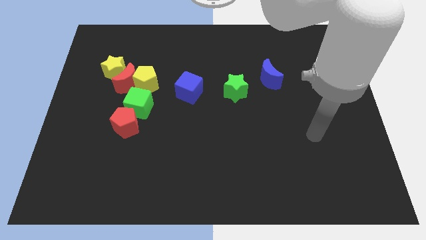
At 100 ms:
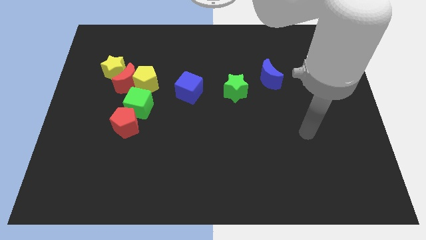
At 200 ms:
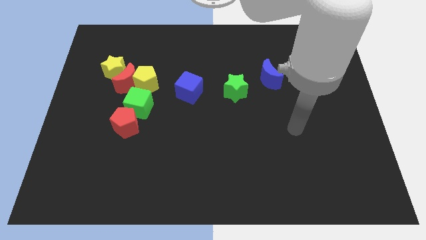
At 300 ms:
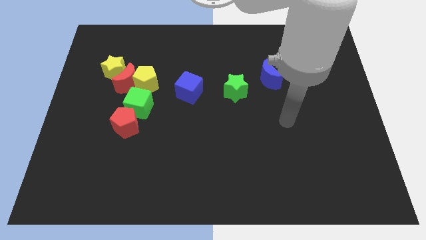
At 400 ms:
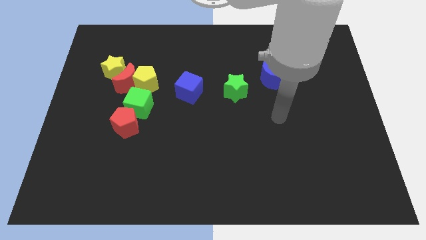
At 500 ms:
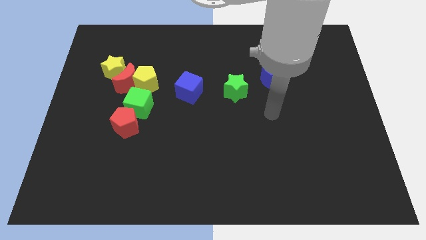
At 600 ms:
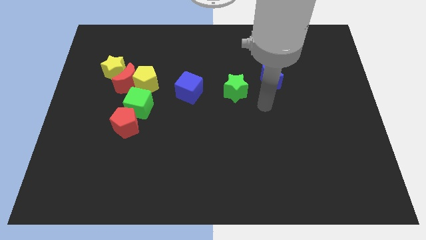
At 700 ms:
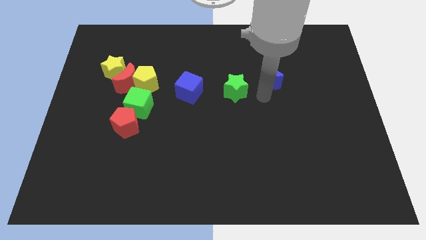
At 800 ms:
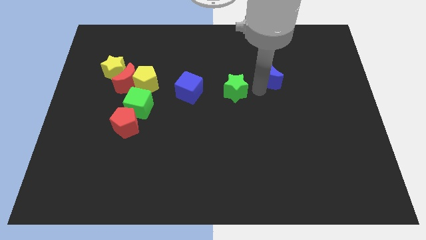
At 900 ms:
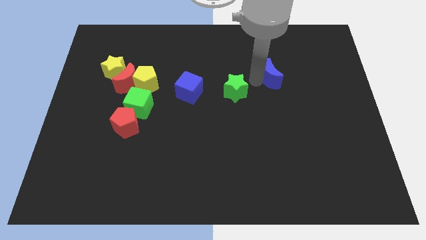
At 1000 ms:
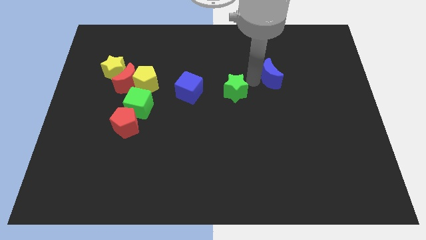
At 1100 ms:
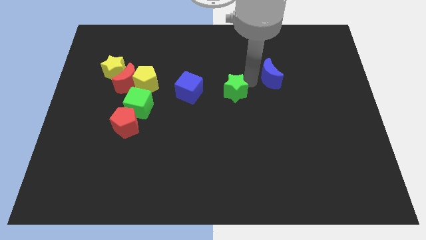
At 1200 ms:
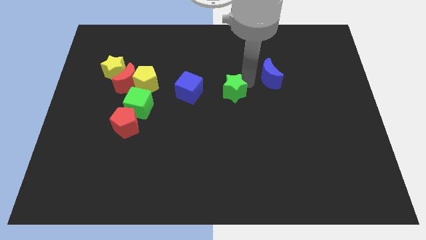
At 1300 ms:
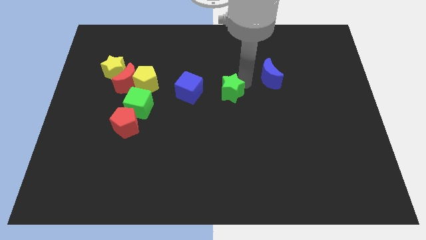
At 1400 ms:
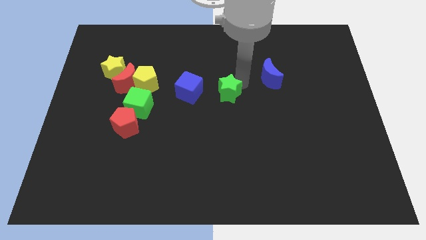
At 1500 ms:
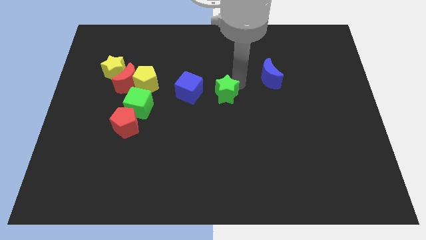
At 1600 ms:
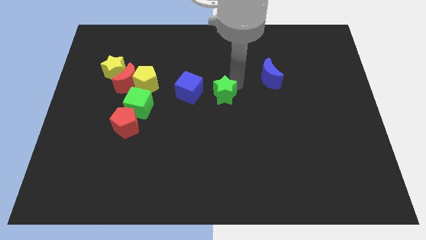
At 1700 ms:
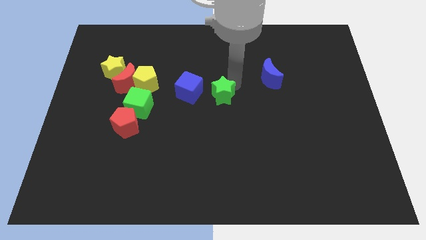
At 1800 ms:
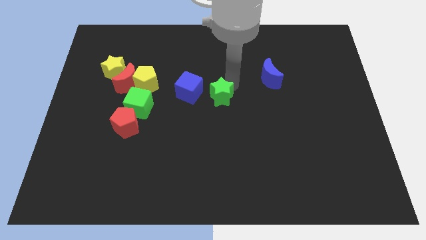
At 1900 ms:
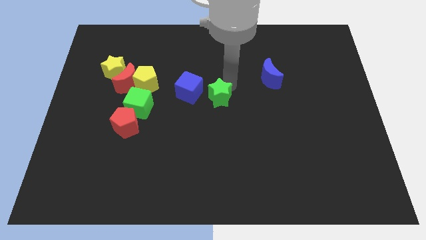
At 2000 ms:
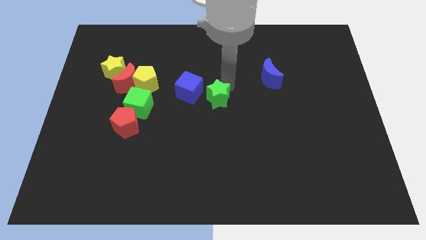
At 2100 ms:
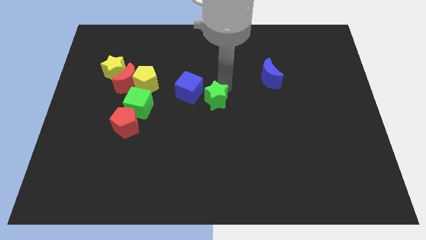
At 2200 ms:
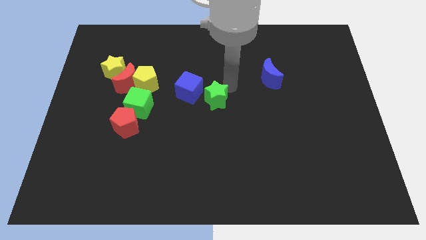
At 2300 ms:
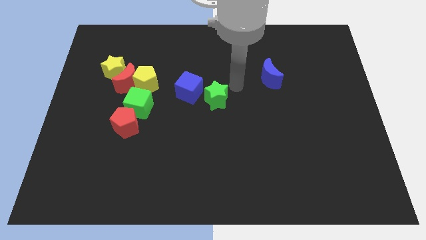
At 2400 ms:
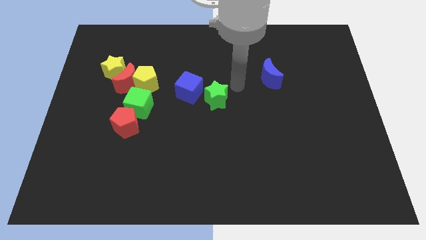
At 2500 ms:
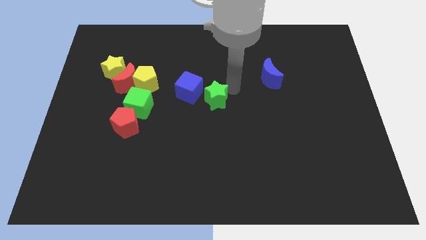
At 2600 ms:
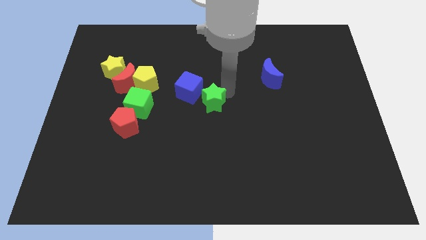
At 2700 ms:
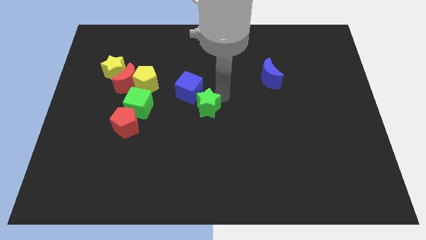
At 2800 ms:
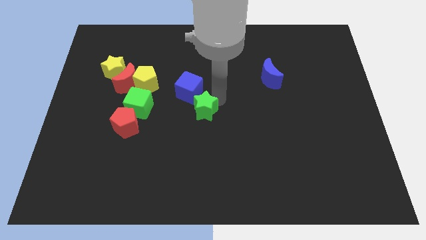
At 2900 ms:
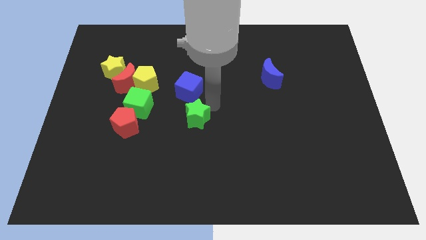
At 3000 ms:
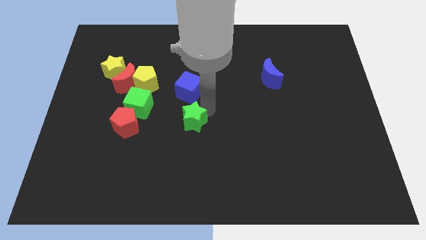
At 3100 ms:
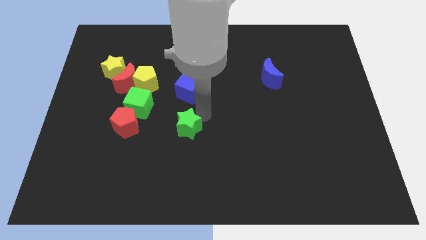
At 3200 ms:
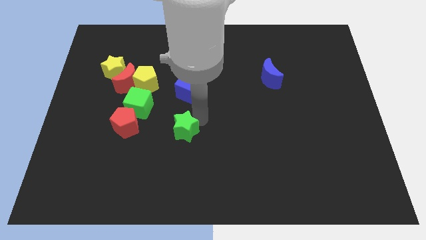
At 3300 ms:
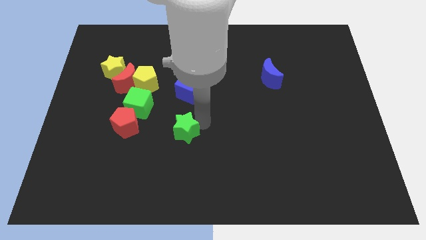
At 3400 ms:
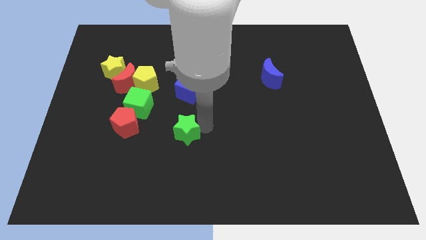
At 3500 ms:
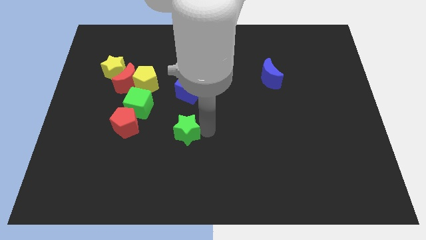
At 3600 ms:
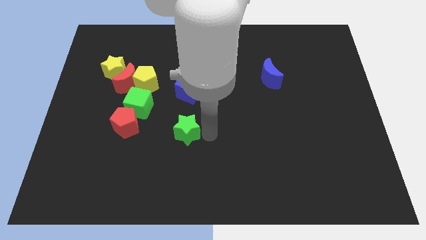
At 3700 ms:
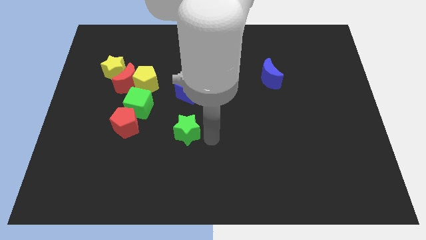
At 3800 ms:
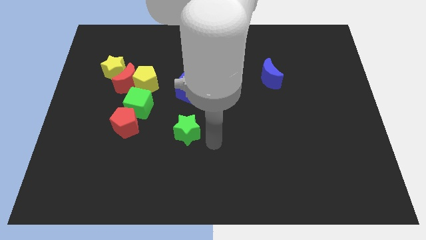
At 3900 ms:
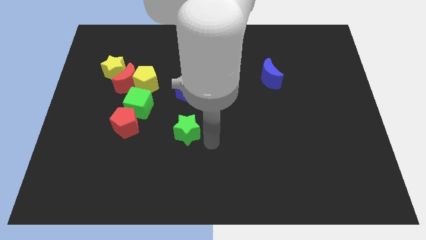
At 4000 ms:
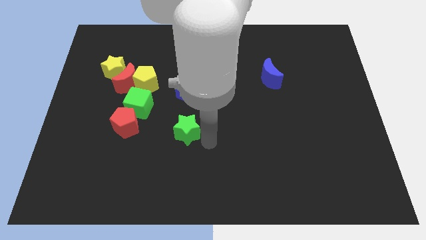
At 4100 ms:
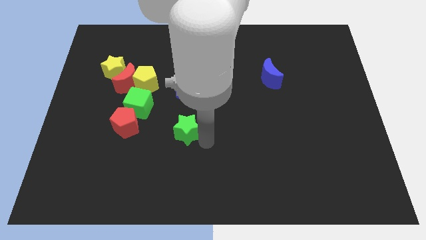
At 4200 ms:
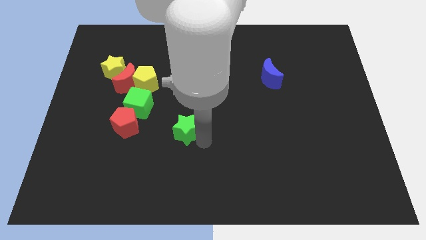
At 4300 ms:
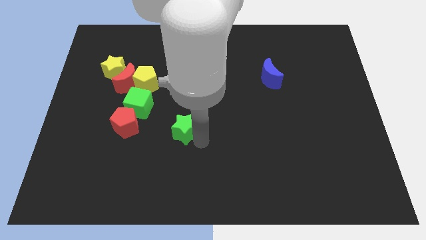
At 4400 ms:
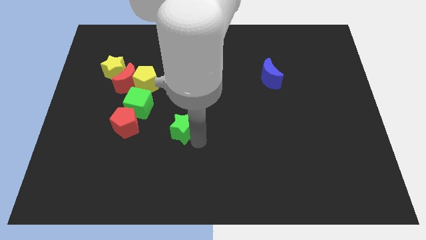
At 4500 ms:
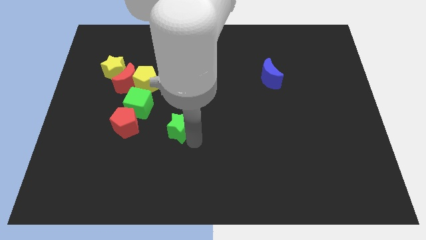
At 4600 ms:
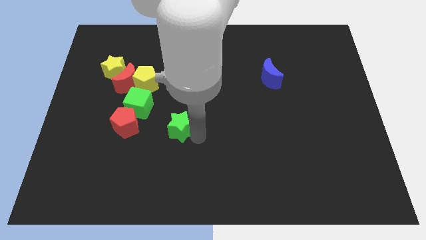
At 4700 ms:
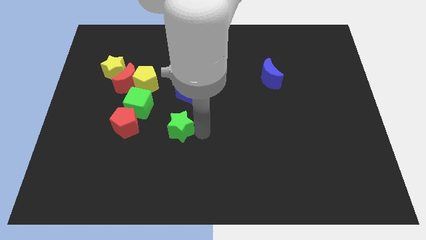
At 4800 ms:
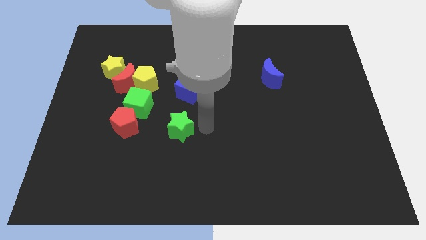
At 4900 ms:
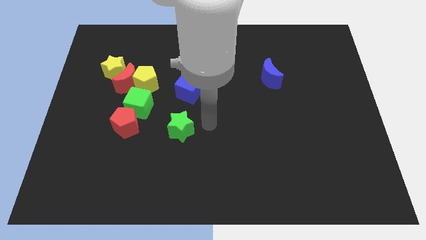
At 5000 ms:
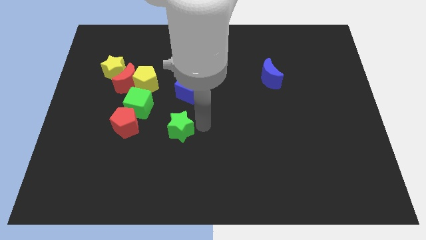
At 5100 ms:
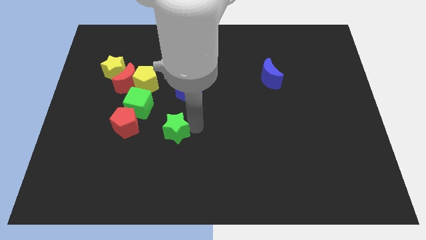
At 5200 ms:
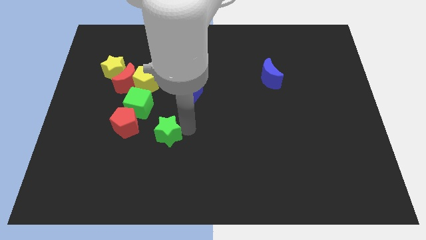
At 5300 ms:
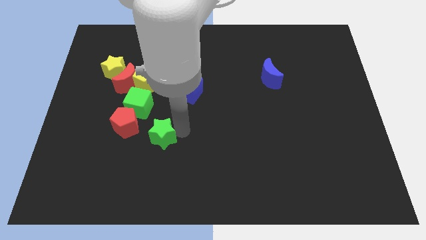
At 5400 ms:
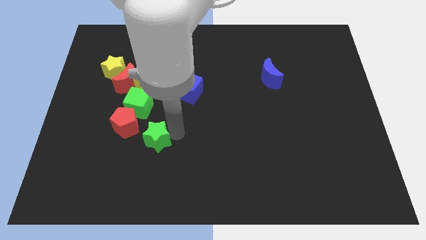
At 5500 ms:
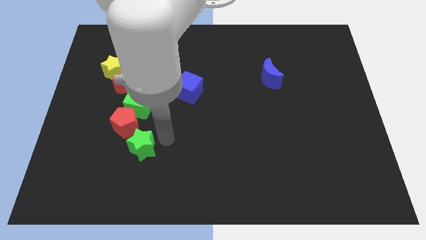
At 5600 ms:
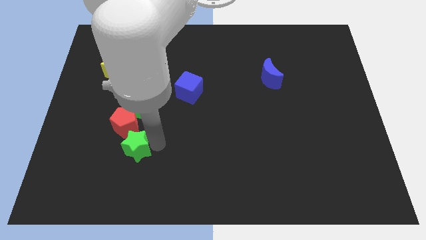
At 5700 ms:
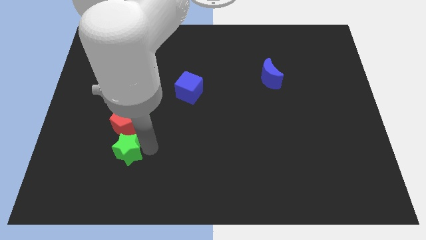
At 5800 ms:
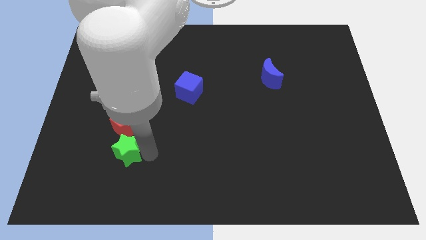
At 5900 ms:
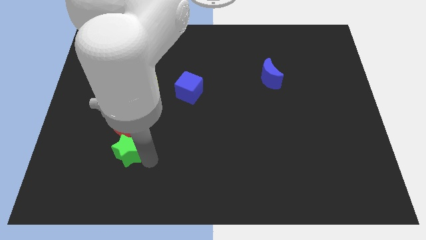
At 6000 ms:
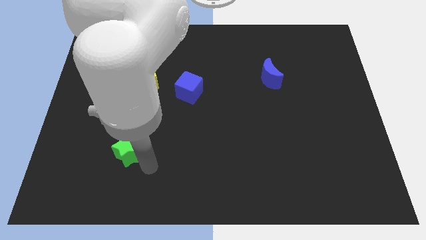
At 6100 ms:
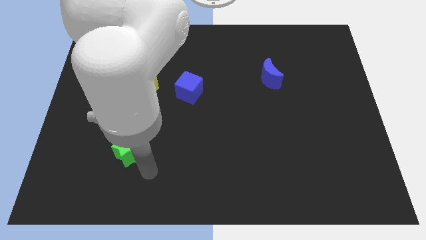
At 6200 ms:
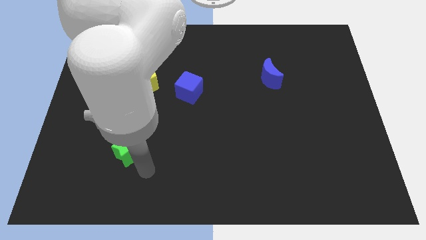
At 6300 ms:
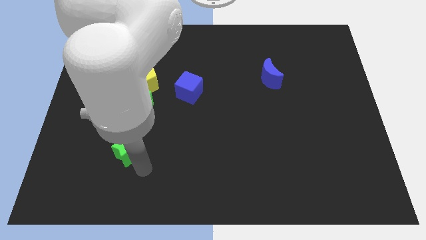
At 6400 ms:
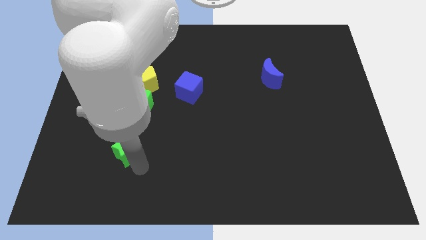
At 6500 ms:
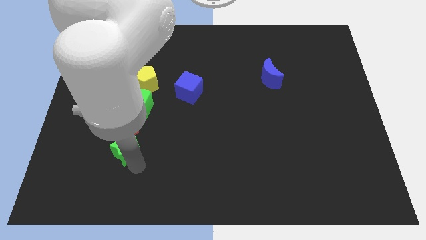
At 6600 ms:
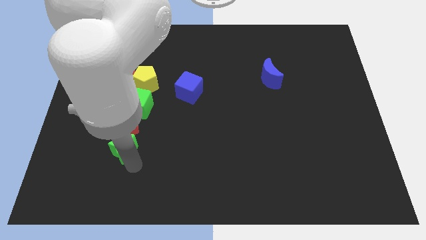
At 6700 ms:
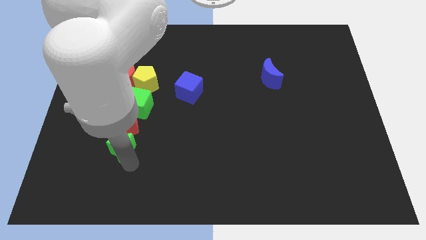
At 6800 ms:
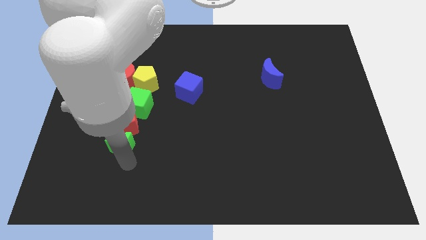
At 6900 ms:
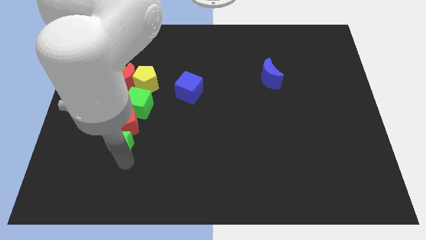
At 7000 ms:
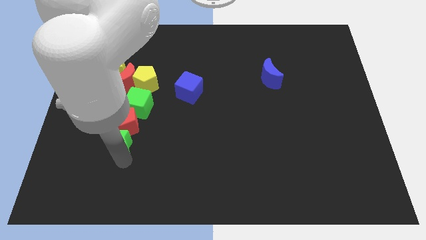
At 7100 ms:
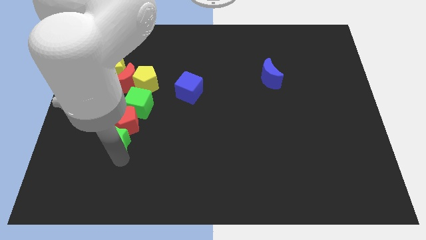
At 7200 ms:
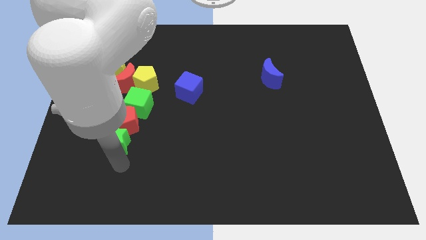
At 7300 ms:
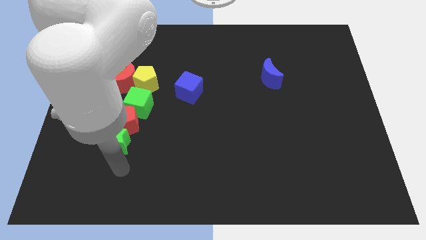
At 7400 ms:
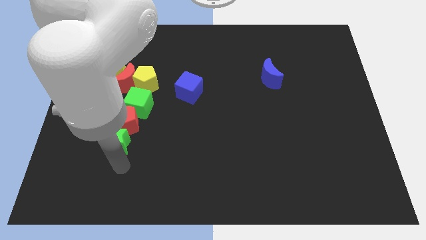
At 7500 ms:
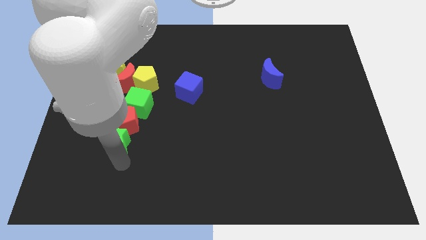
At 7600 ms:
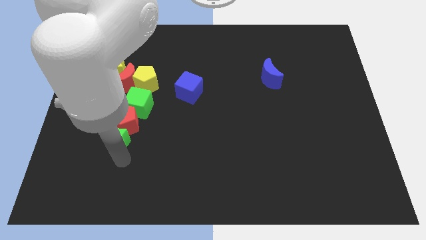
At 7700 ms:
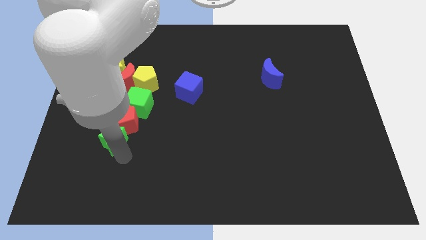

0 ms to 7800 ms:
push the green star diagonally down and to the left of the green cube
